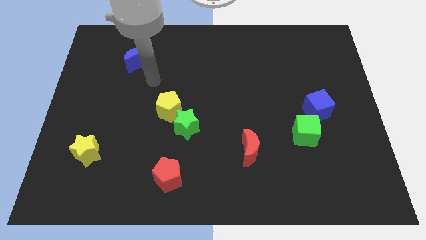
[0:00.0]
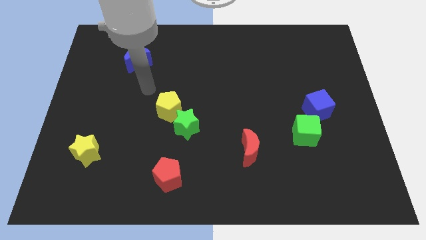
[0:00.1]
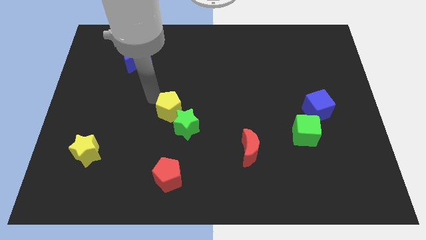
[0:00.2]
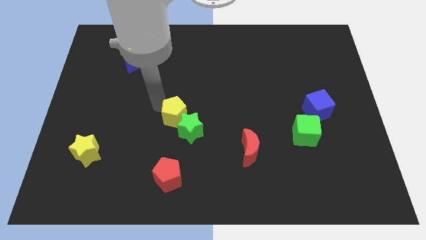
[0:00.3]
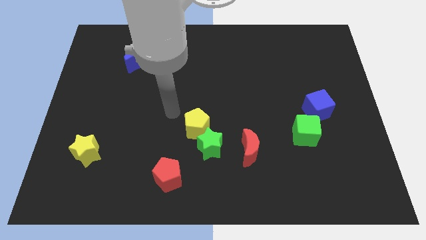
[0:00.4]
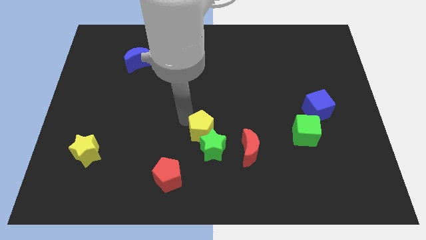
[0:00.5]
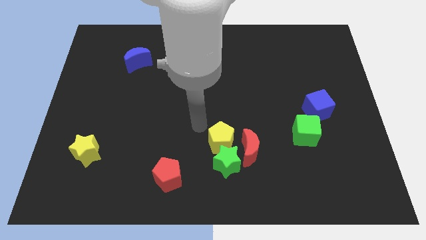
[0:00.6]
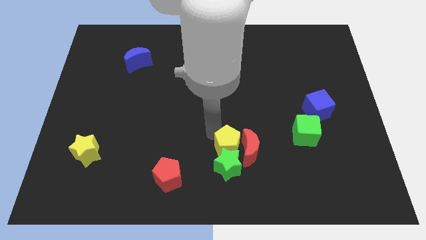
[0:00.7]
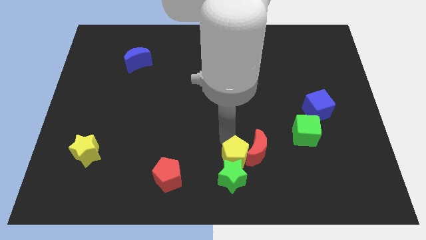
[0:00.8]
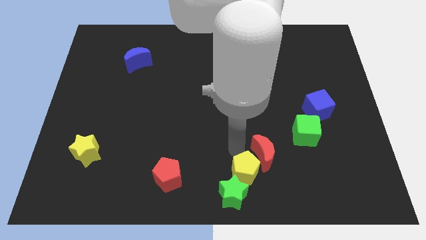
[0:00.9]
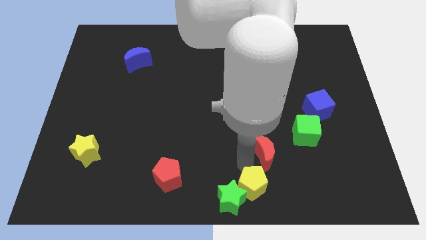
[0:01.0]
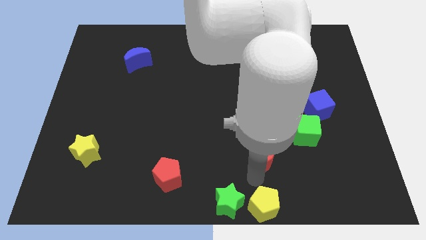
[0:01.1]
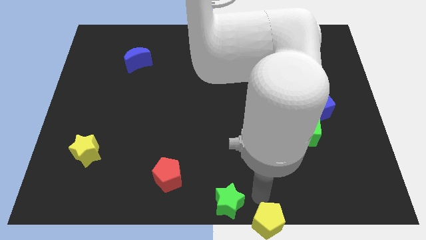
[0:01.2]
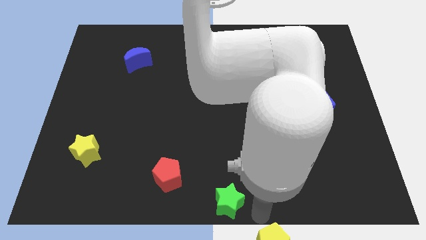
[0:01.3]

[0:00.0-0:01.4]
separate the green star from the yellow pentagon

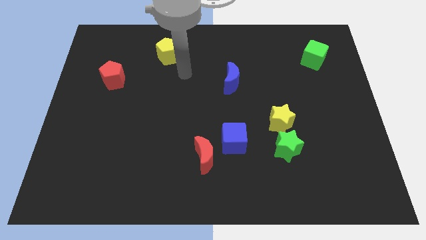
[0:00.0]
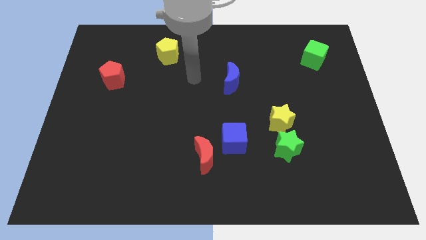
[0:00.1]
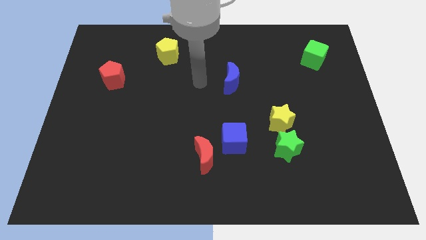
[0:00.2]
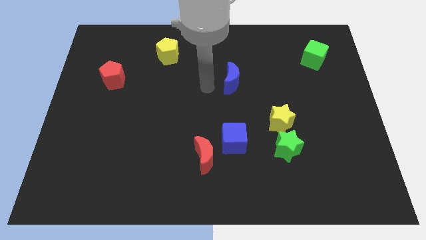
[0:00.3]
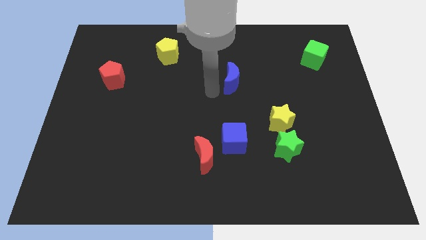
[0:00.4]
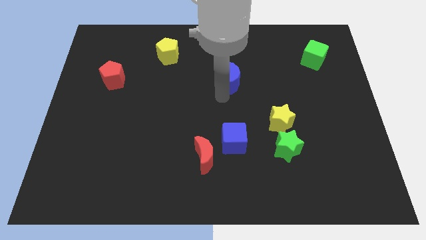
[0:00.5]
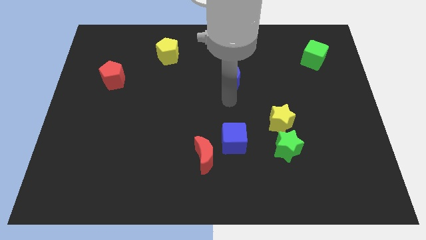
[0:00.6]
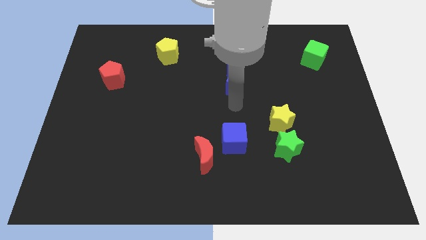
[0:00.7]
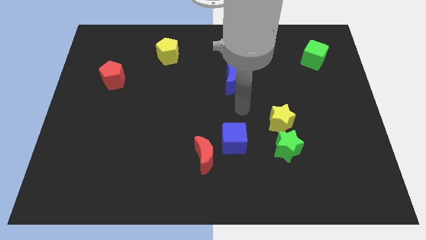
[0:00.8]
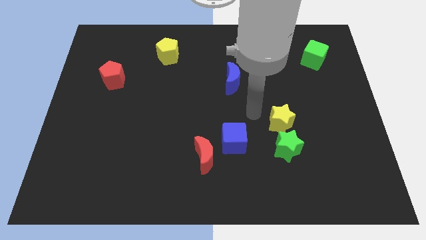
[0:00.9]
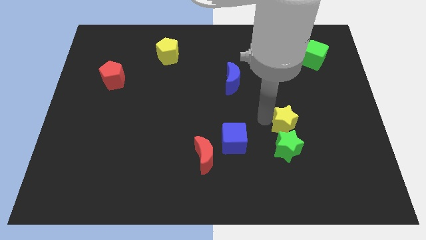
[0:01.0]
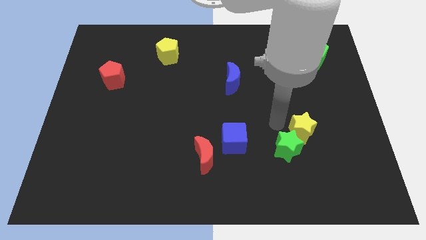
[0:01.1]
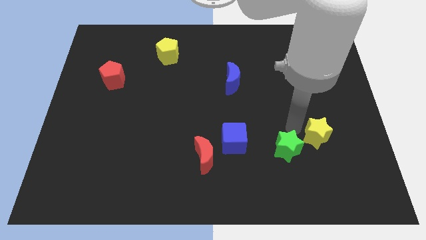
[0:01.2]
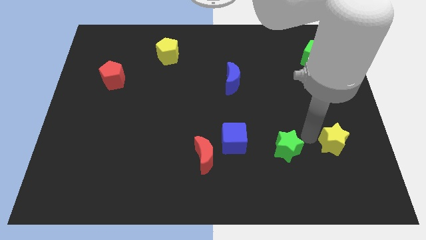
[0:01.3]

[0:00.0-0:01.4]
separate the green star from the yellow star

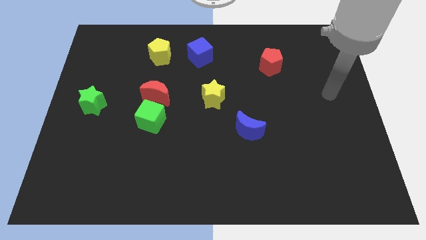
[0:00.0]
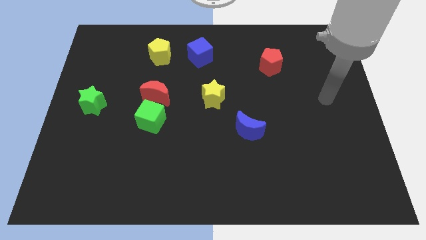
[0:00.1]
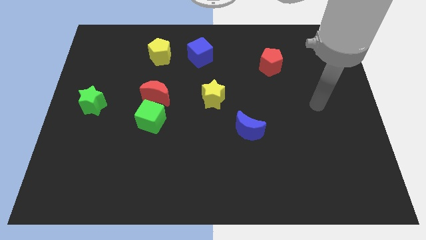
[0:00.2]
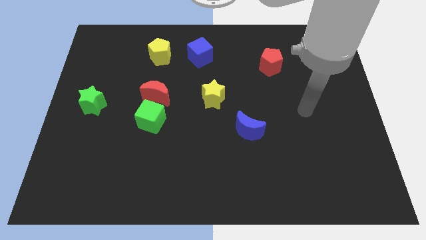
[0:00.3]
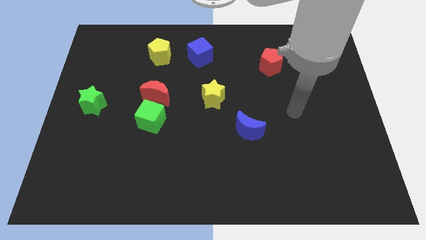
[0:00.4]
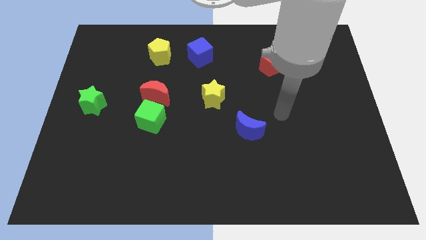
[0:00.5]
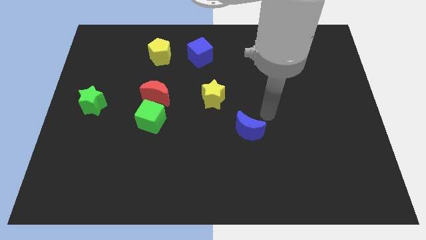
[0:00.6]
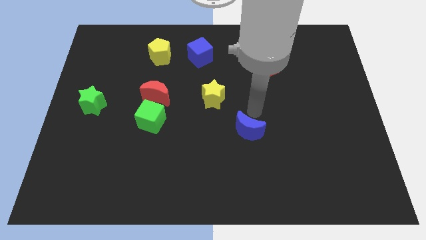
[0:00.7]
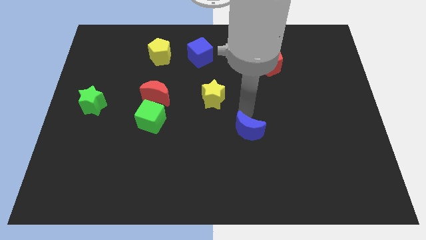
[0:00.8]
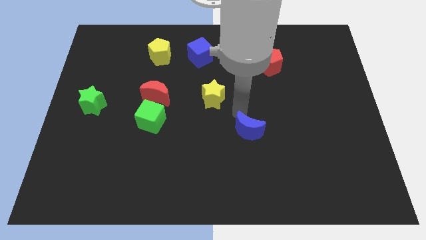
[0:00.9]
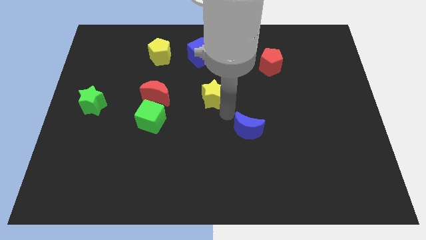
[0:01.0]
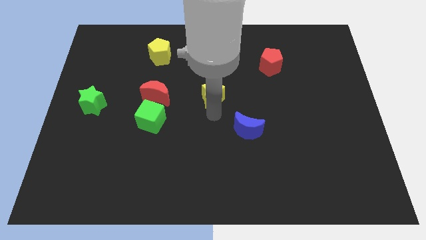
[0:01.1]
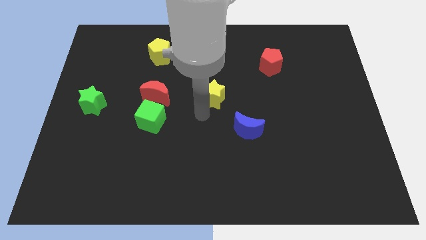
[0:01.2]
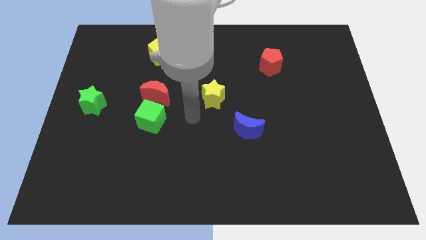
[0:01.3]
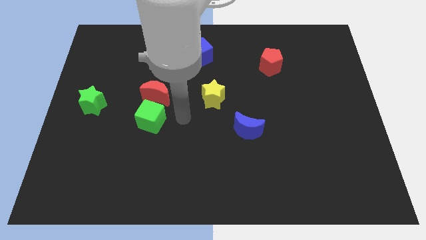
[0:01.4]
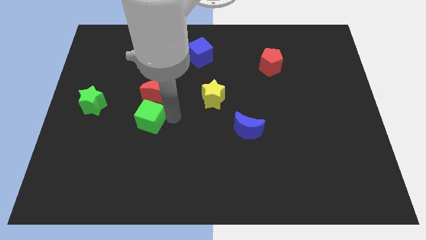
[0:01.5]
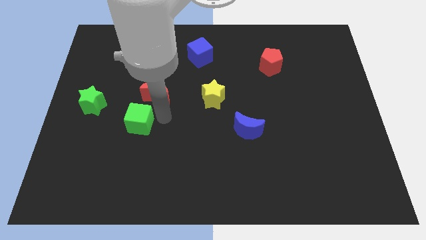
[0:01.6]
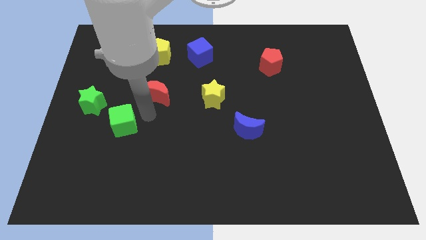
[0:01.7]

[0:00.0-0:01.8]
separate the red moon from the green cube

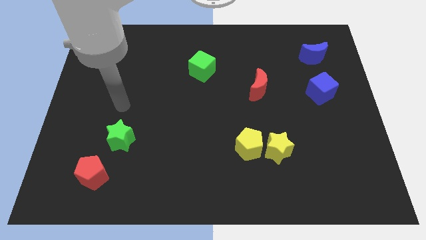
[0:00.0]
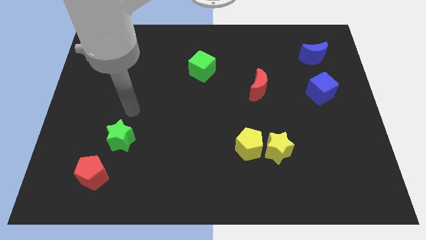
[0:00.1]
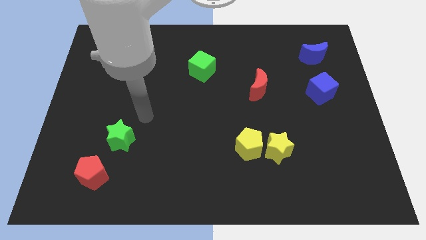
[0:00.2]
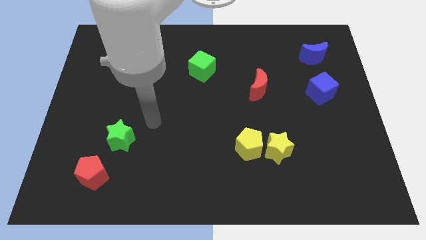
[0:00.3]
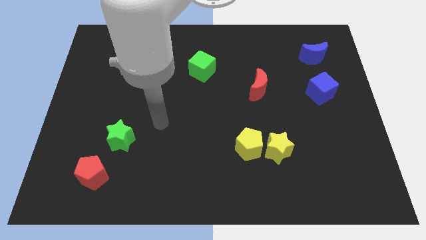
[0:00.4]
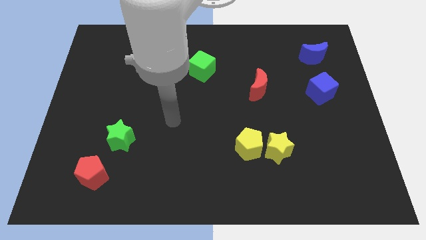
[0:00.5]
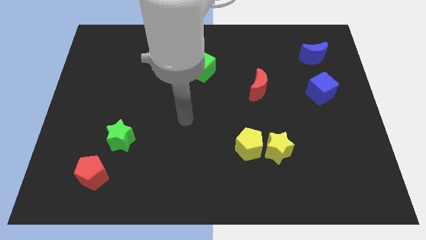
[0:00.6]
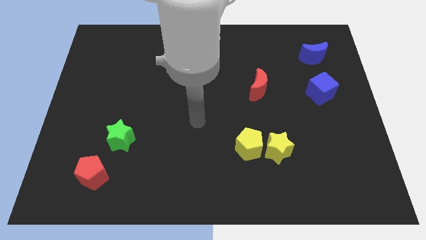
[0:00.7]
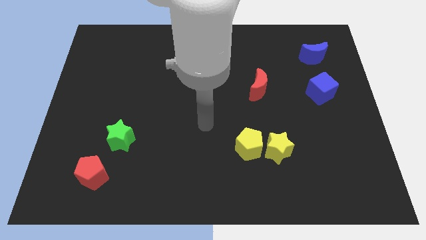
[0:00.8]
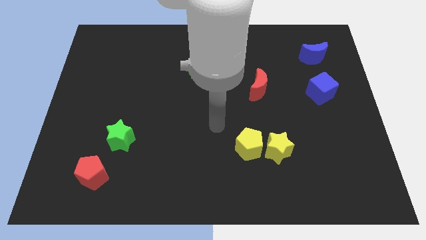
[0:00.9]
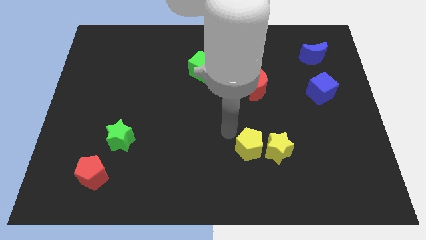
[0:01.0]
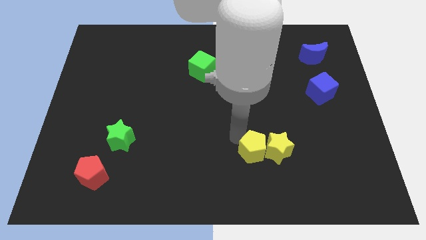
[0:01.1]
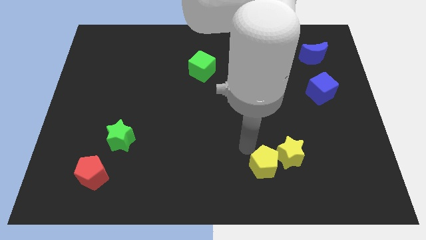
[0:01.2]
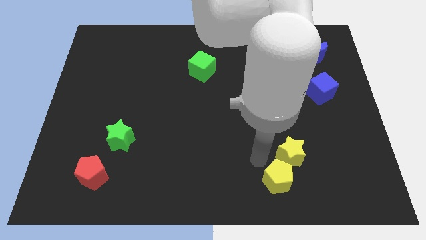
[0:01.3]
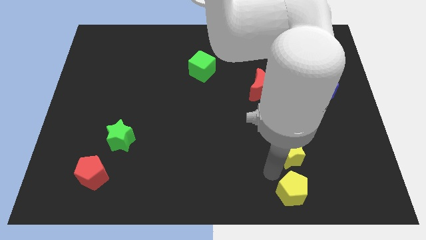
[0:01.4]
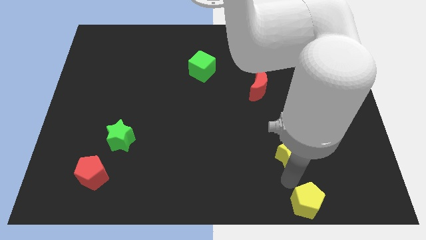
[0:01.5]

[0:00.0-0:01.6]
separate the yellow star from the yellow pentagon

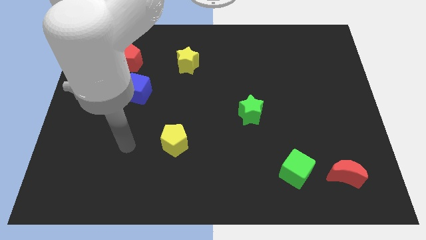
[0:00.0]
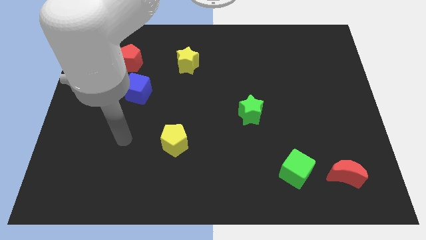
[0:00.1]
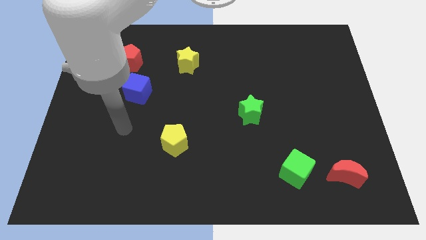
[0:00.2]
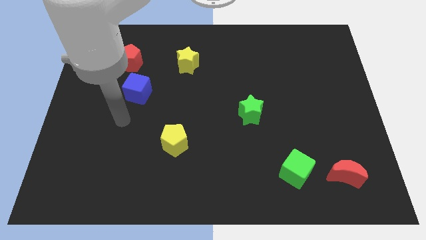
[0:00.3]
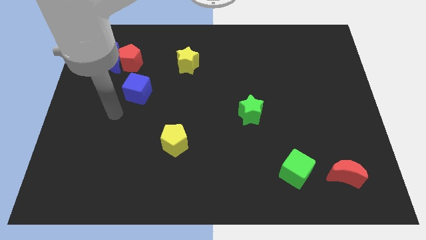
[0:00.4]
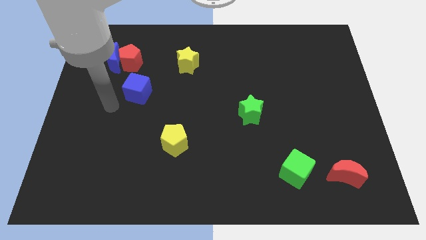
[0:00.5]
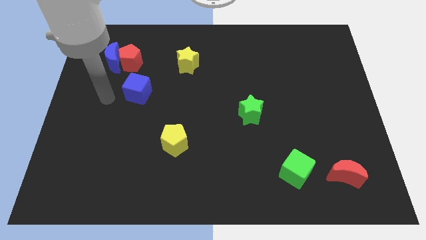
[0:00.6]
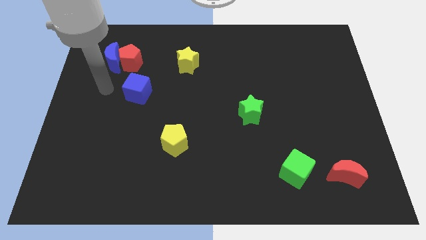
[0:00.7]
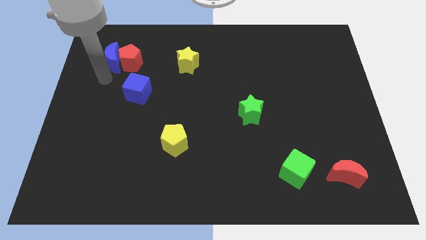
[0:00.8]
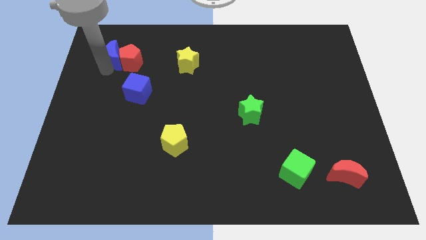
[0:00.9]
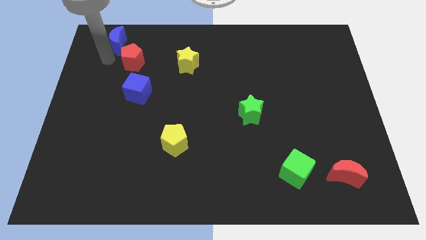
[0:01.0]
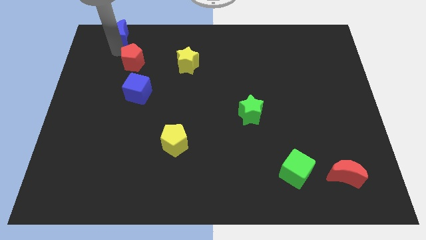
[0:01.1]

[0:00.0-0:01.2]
separate the red pentagon from the blue moon

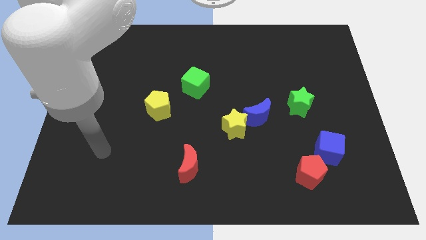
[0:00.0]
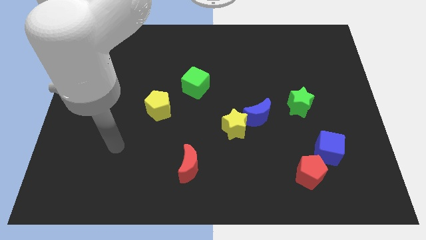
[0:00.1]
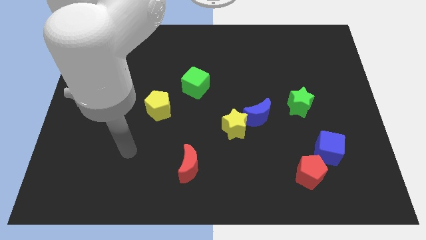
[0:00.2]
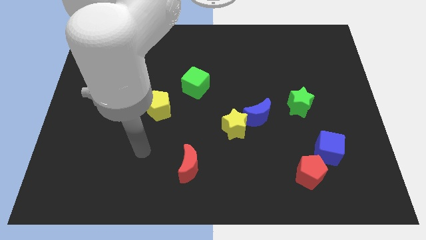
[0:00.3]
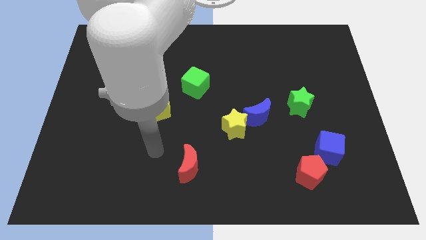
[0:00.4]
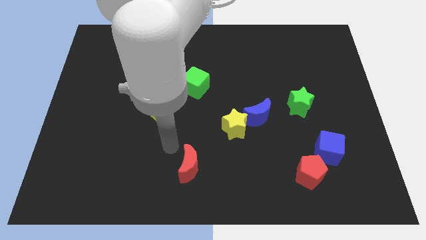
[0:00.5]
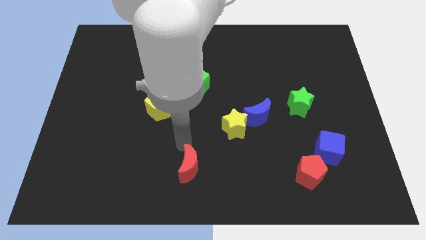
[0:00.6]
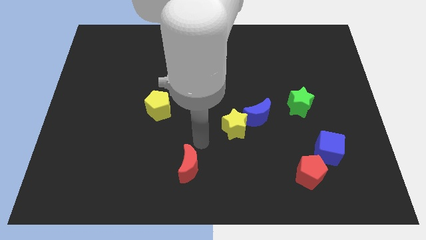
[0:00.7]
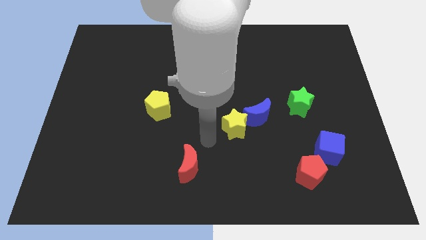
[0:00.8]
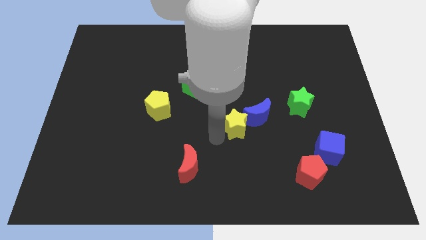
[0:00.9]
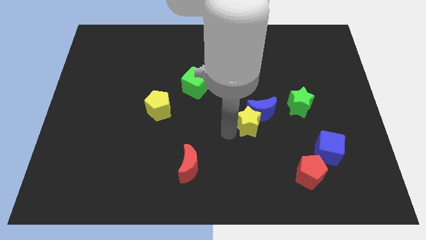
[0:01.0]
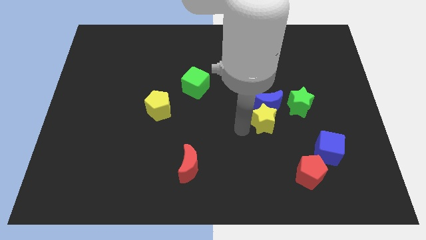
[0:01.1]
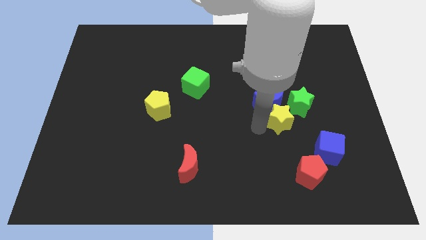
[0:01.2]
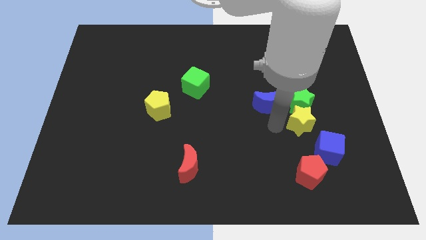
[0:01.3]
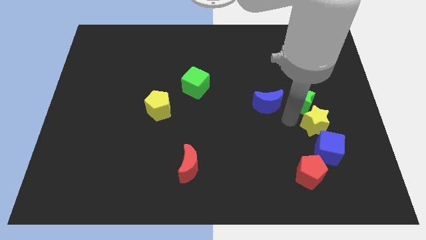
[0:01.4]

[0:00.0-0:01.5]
move the blue moon away from the yellow star

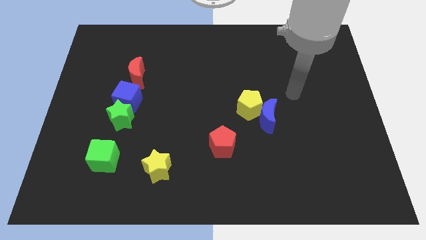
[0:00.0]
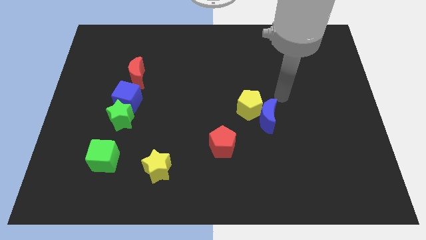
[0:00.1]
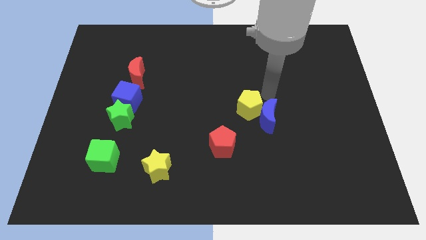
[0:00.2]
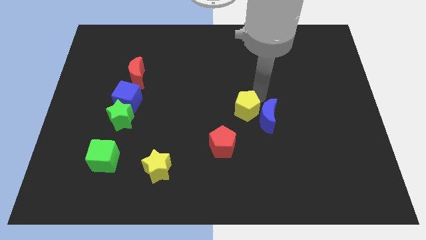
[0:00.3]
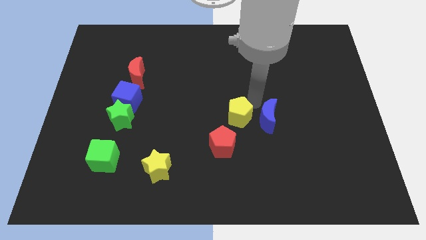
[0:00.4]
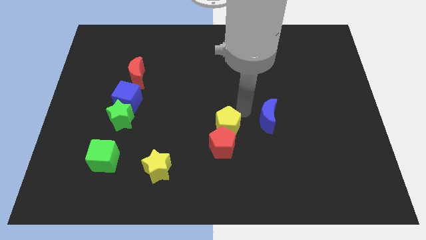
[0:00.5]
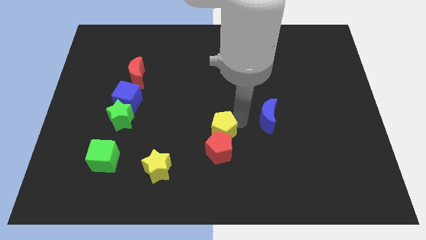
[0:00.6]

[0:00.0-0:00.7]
separate the blue moon from the yellow pentagon
